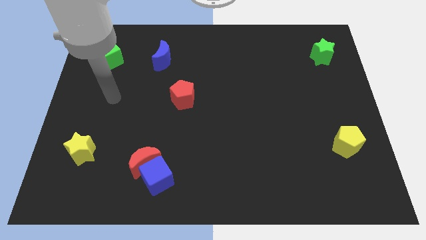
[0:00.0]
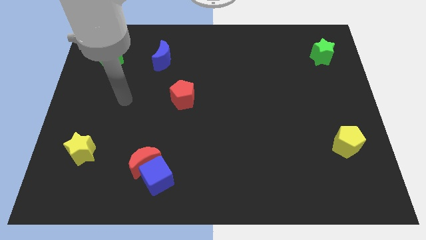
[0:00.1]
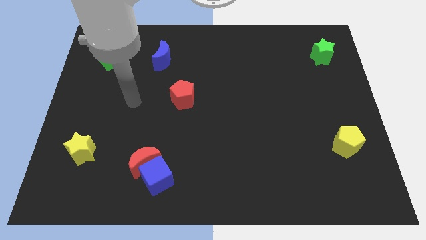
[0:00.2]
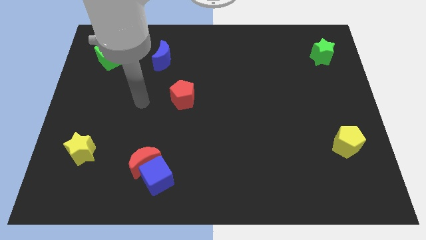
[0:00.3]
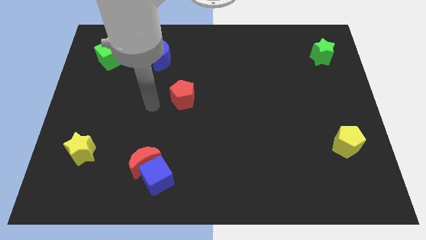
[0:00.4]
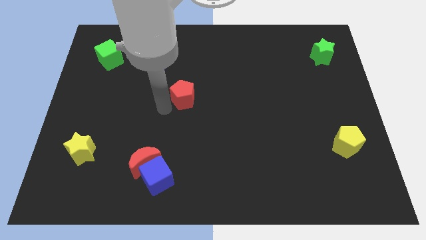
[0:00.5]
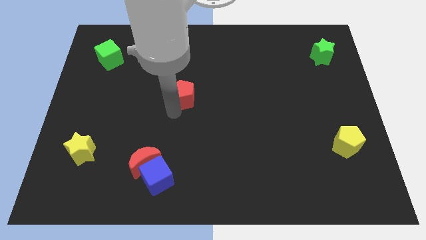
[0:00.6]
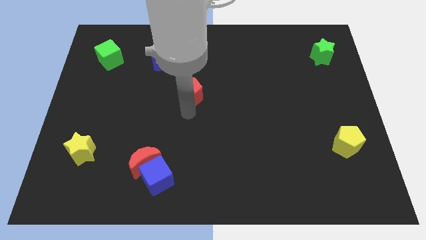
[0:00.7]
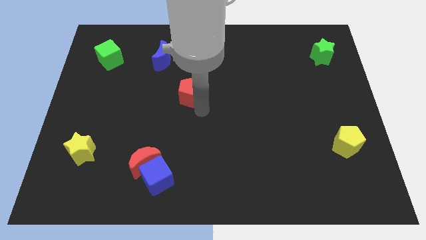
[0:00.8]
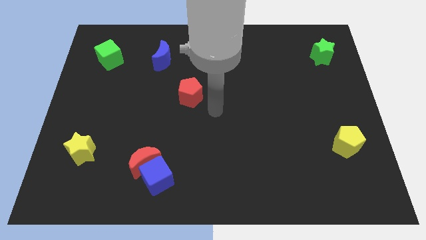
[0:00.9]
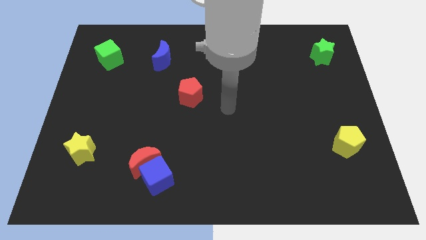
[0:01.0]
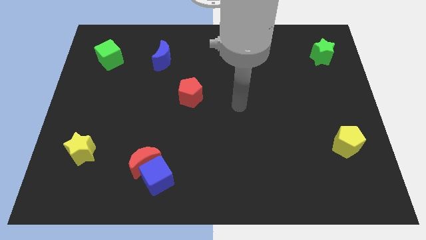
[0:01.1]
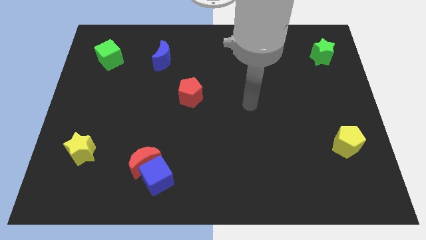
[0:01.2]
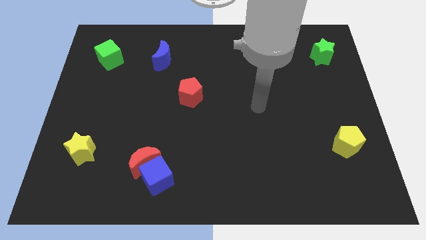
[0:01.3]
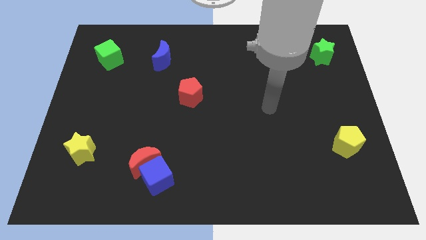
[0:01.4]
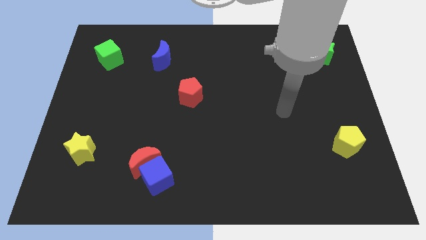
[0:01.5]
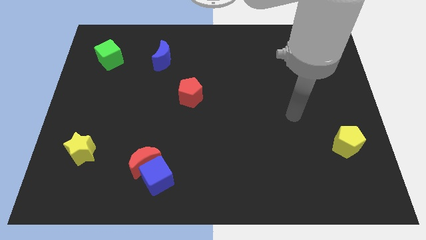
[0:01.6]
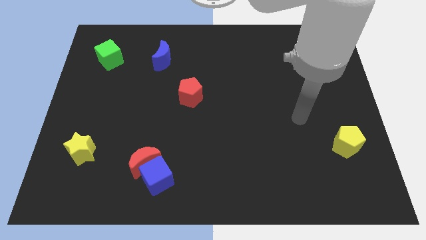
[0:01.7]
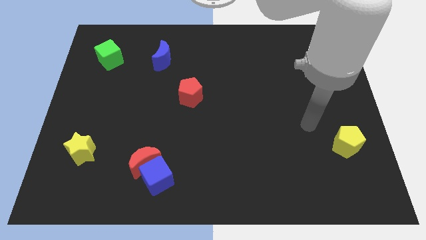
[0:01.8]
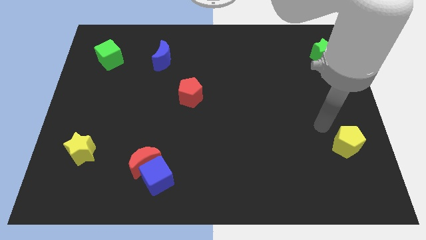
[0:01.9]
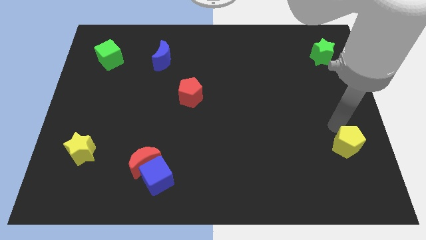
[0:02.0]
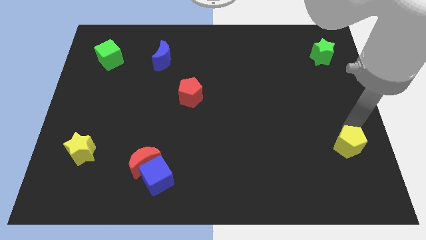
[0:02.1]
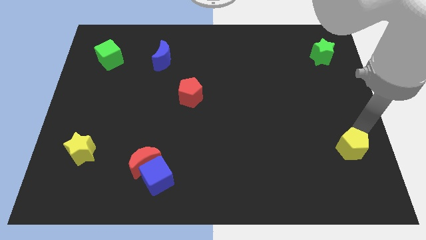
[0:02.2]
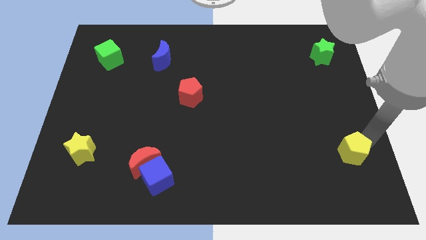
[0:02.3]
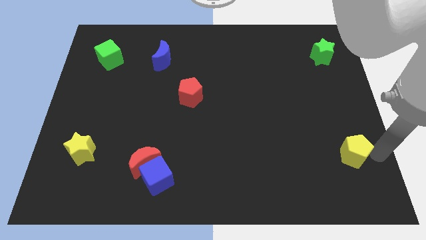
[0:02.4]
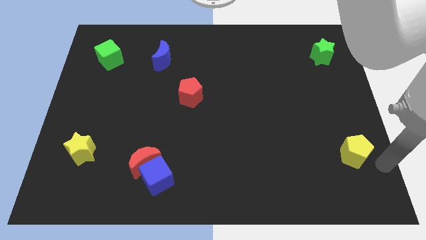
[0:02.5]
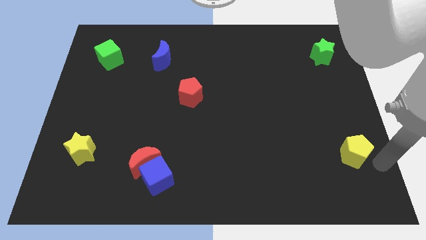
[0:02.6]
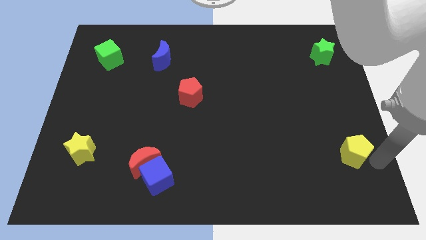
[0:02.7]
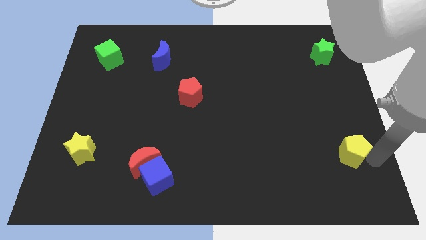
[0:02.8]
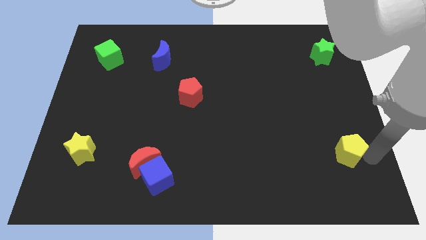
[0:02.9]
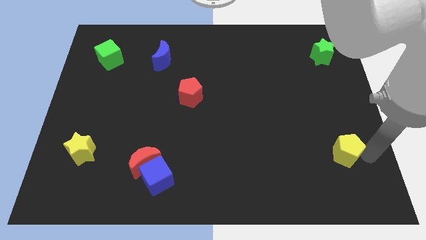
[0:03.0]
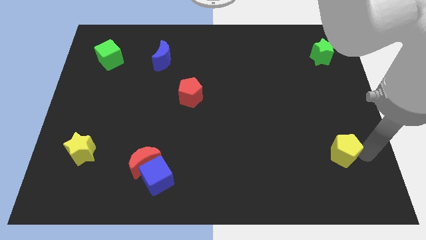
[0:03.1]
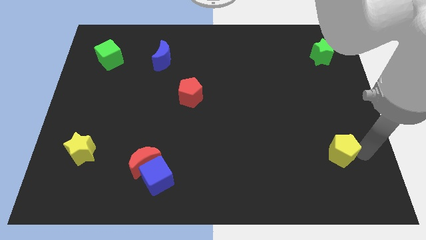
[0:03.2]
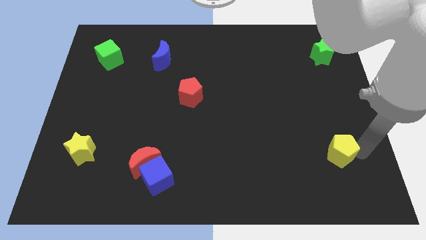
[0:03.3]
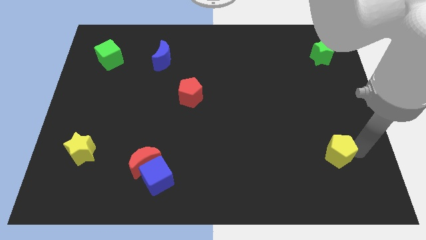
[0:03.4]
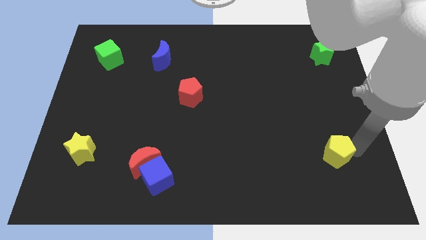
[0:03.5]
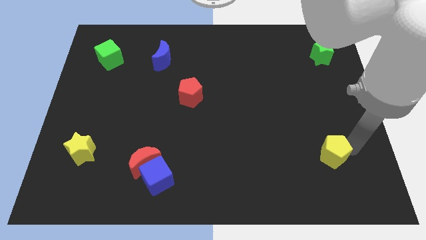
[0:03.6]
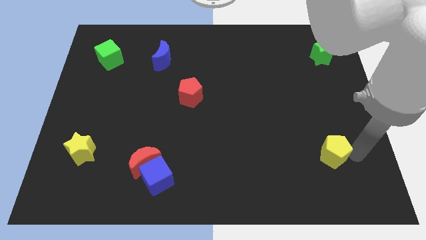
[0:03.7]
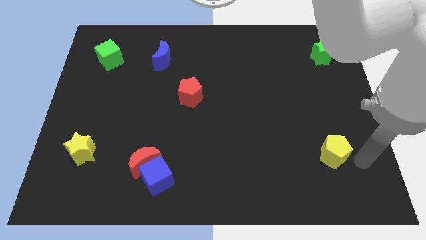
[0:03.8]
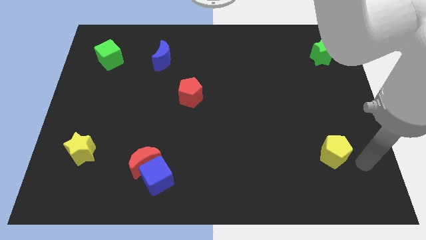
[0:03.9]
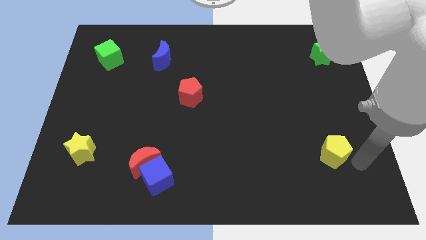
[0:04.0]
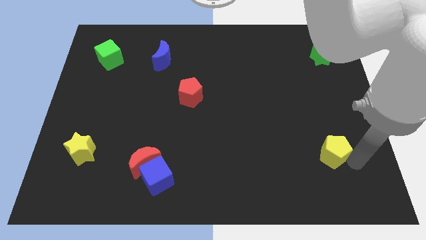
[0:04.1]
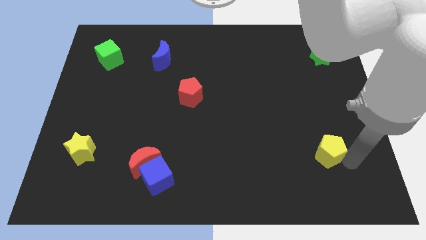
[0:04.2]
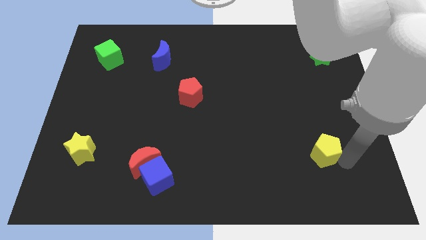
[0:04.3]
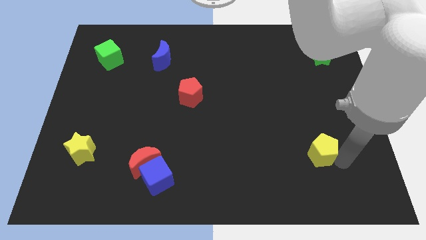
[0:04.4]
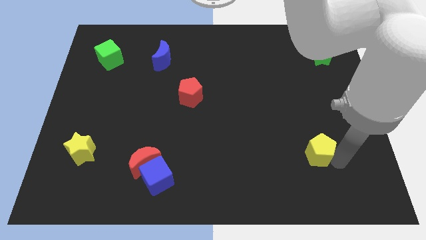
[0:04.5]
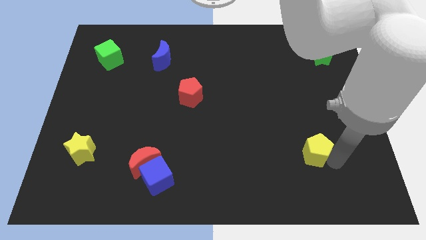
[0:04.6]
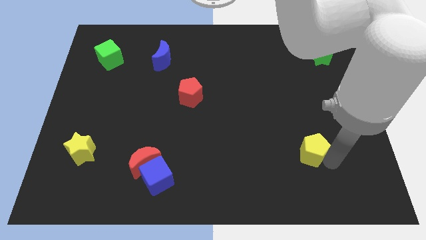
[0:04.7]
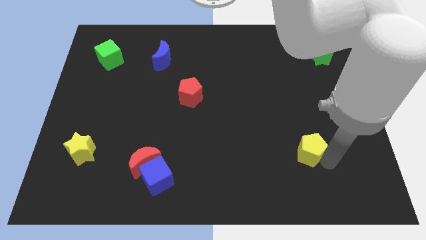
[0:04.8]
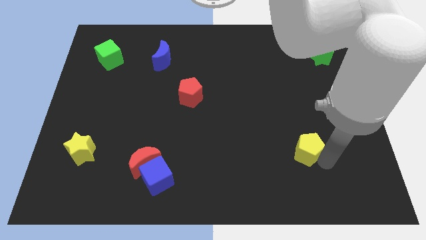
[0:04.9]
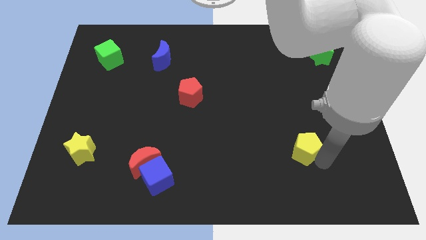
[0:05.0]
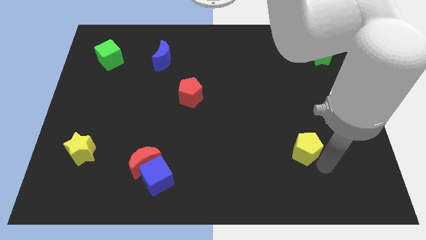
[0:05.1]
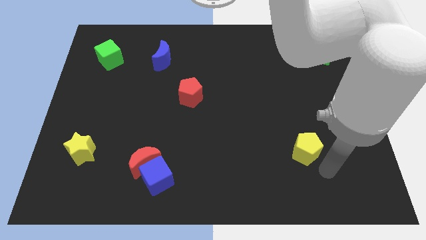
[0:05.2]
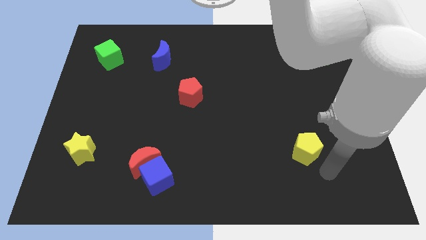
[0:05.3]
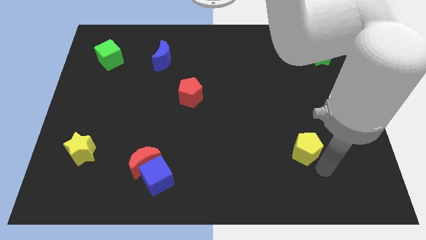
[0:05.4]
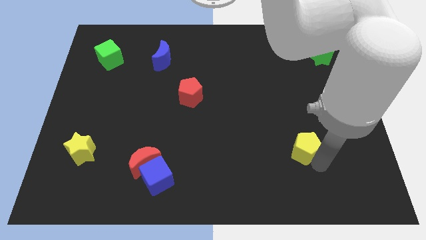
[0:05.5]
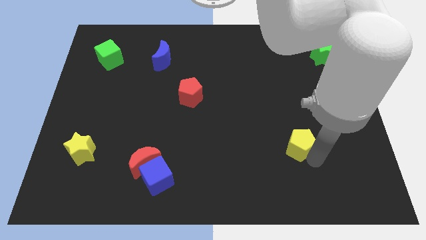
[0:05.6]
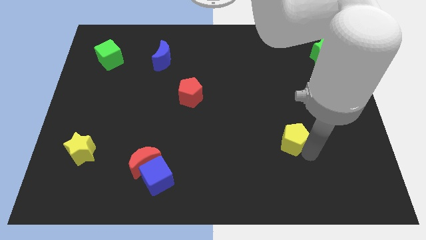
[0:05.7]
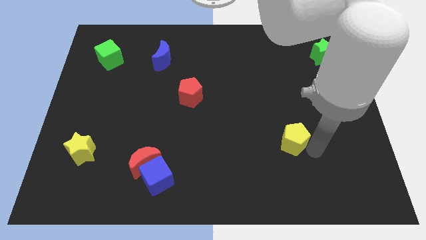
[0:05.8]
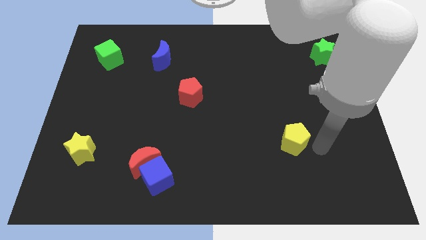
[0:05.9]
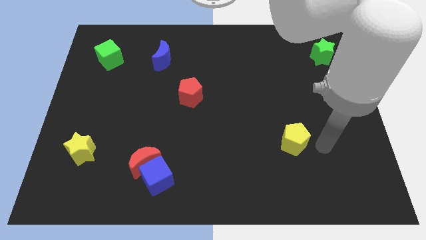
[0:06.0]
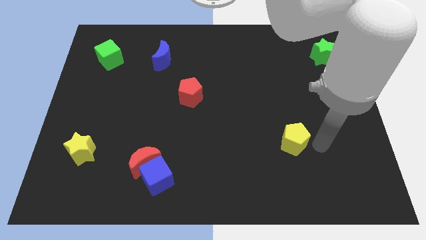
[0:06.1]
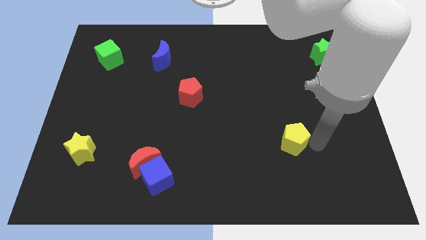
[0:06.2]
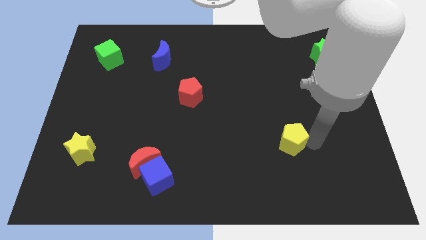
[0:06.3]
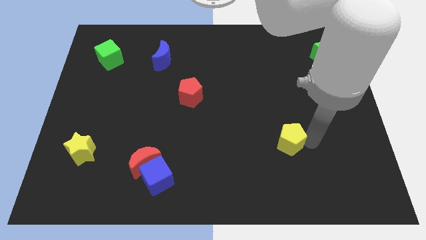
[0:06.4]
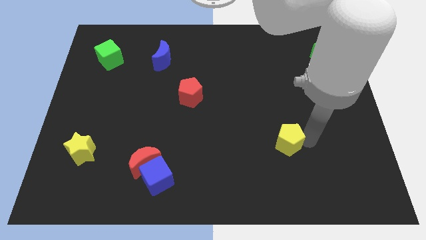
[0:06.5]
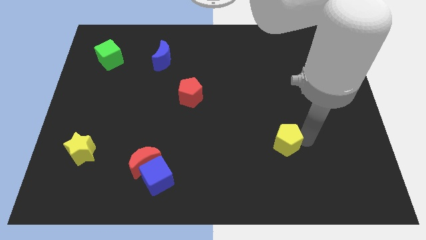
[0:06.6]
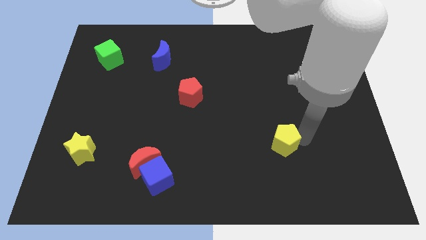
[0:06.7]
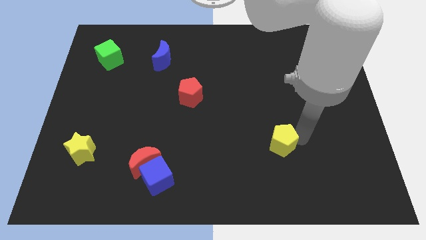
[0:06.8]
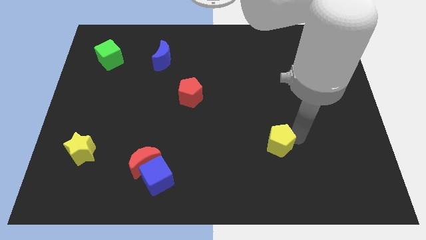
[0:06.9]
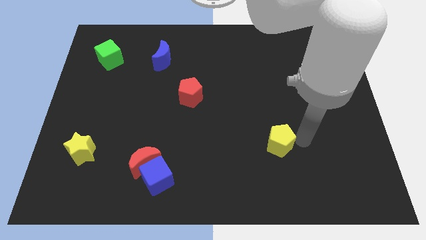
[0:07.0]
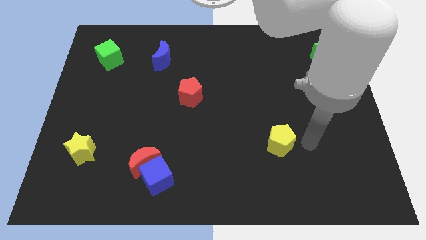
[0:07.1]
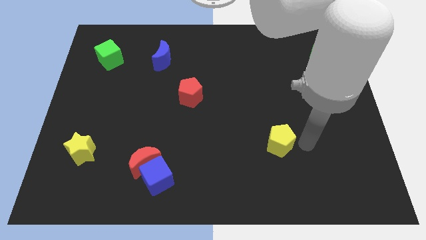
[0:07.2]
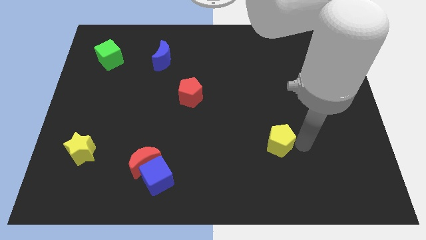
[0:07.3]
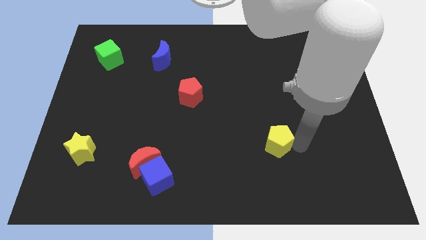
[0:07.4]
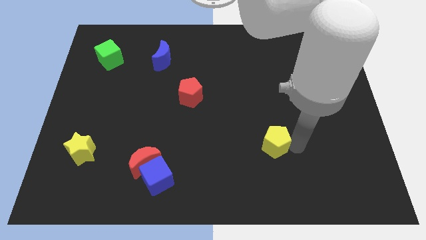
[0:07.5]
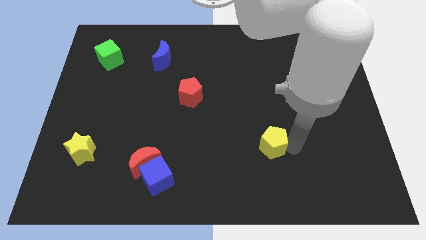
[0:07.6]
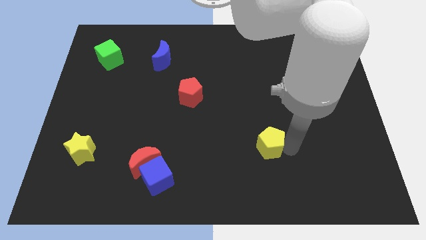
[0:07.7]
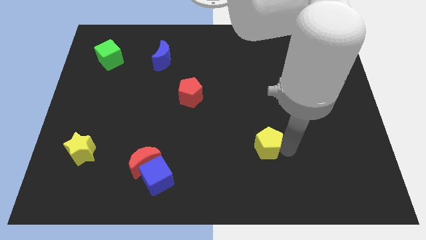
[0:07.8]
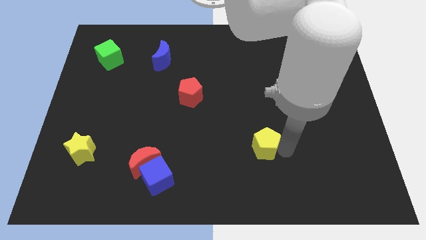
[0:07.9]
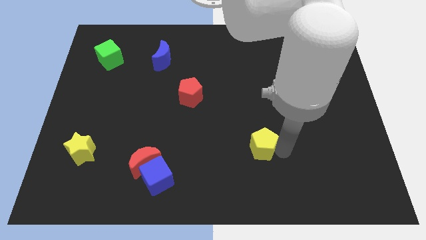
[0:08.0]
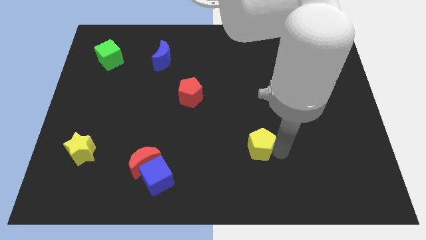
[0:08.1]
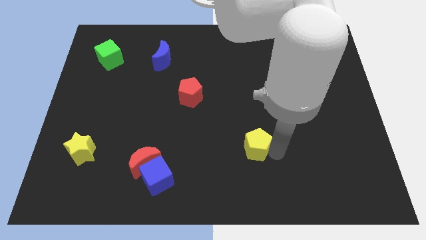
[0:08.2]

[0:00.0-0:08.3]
slide the yellow pentagon to the left
